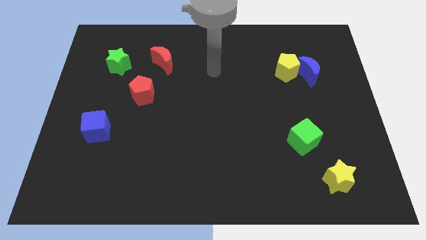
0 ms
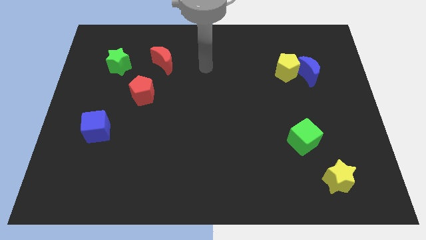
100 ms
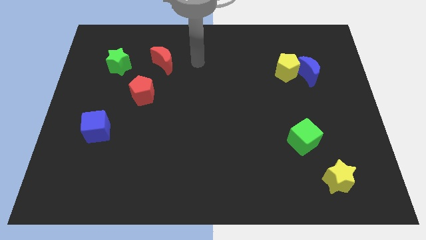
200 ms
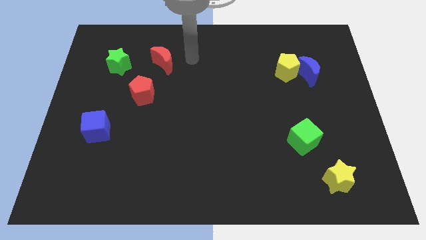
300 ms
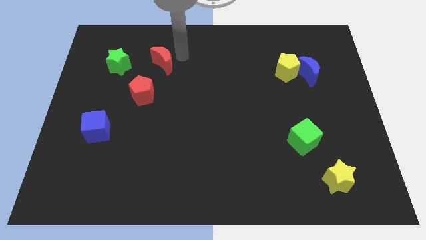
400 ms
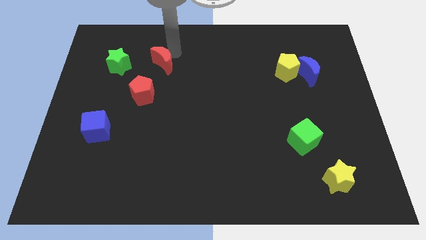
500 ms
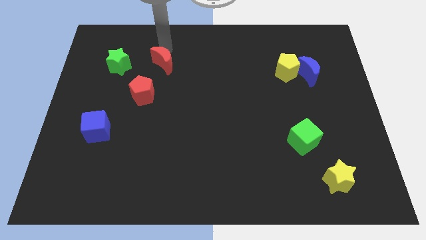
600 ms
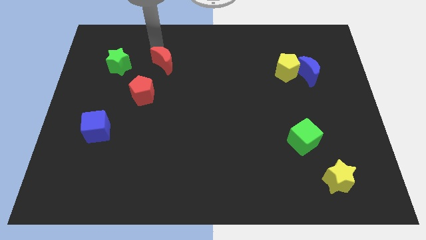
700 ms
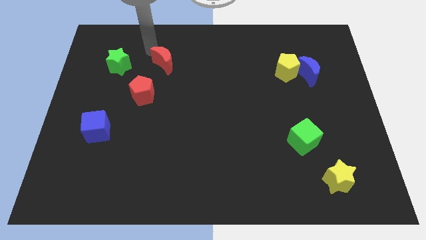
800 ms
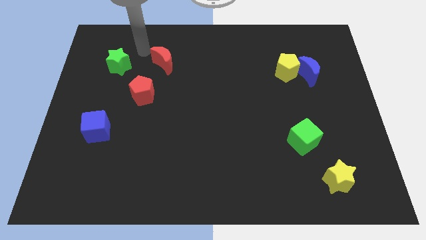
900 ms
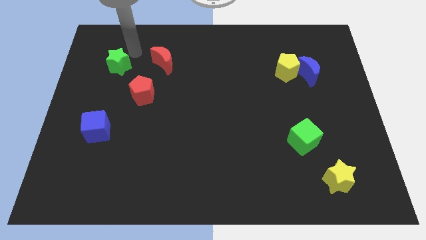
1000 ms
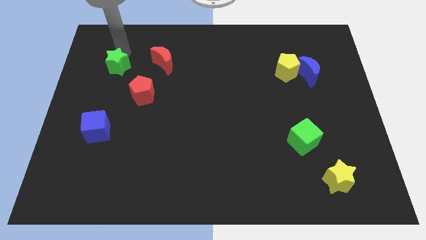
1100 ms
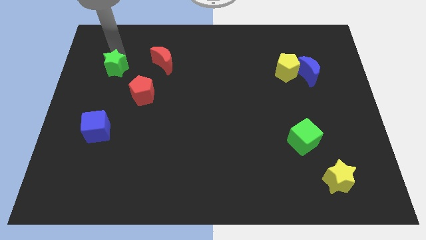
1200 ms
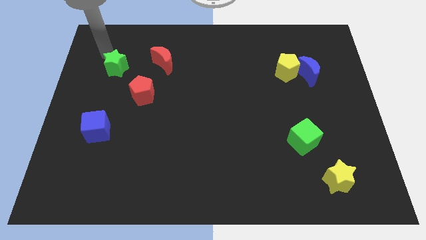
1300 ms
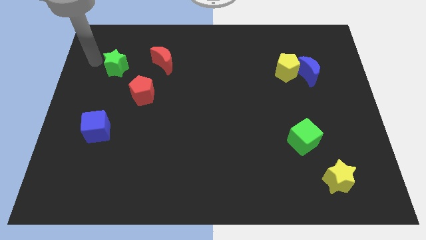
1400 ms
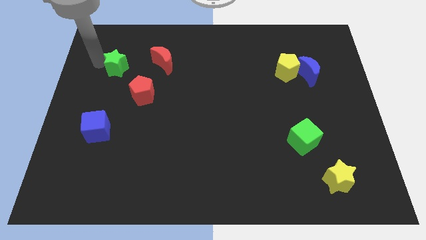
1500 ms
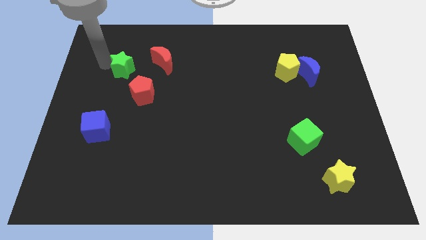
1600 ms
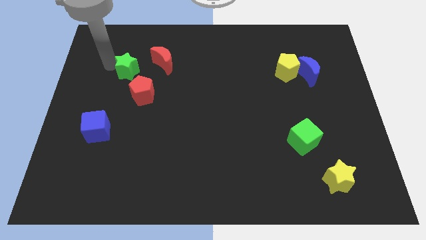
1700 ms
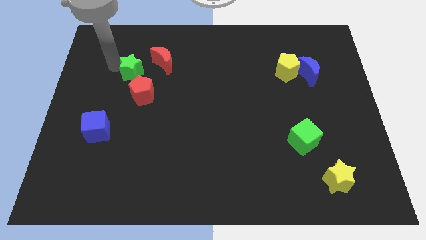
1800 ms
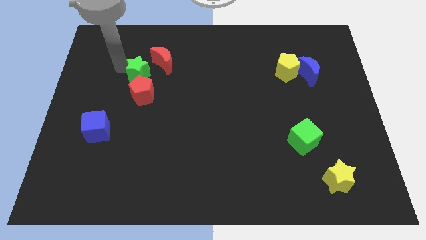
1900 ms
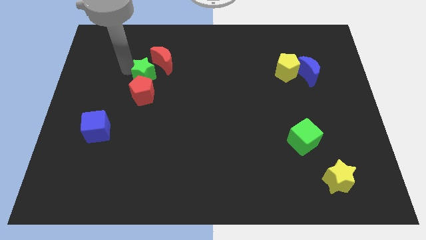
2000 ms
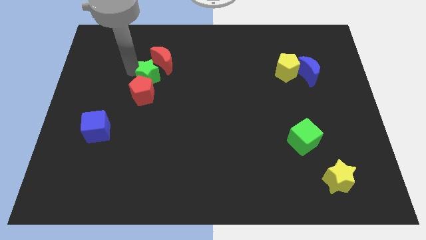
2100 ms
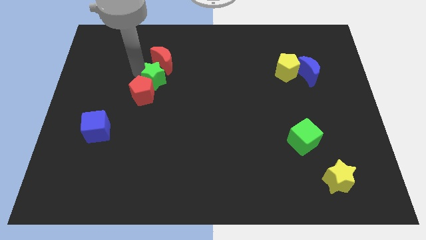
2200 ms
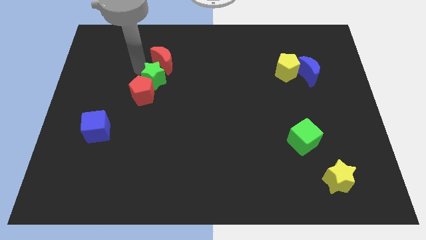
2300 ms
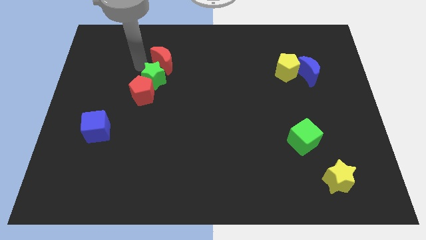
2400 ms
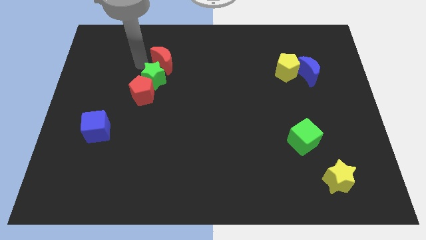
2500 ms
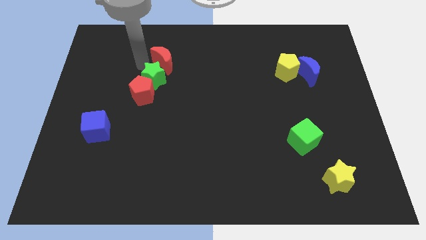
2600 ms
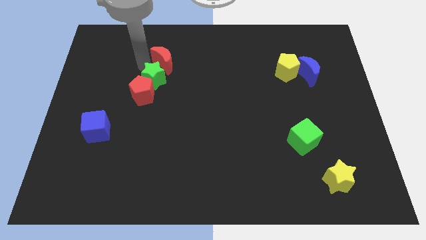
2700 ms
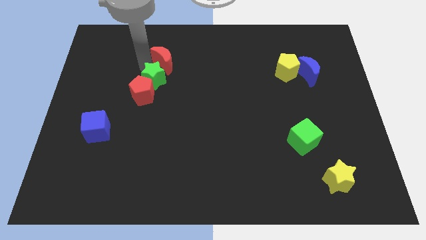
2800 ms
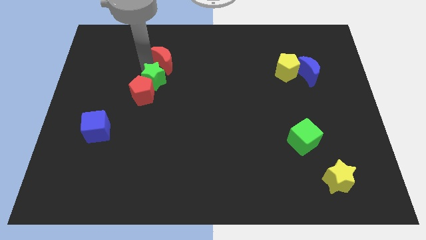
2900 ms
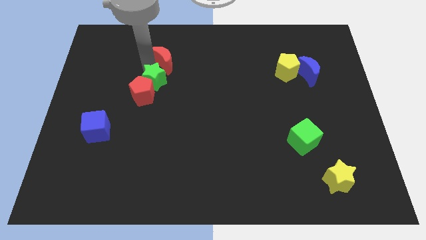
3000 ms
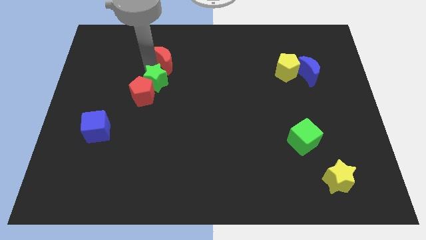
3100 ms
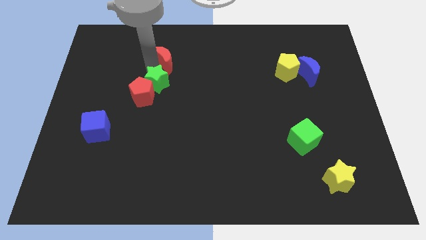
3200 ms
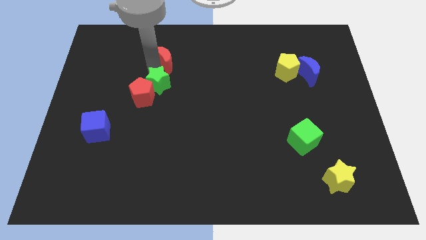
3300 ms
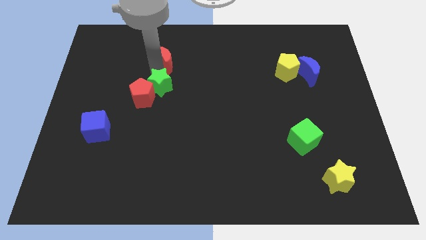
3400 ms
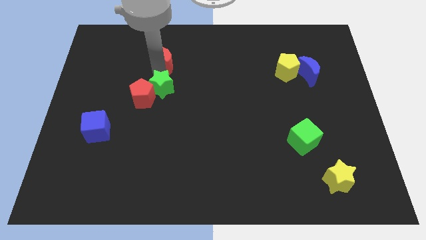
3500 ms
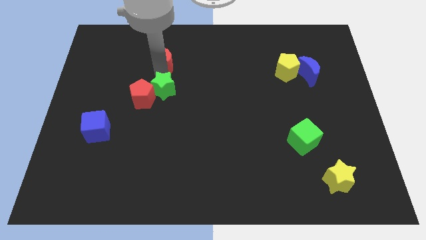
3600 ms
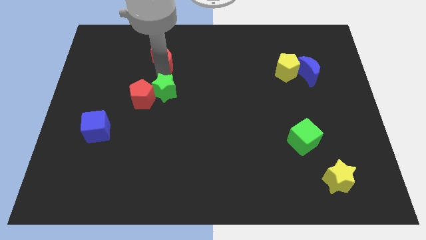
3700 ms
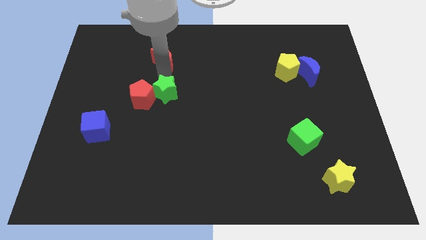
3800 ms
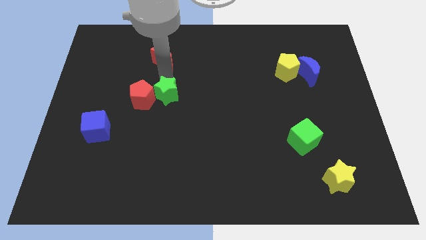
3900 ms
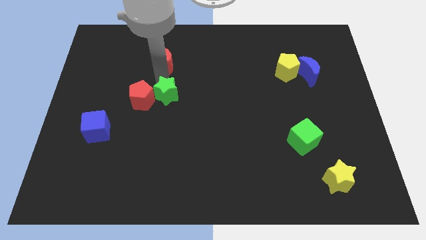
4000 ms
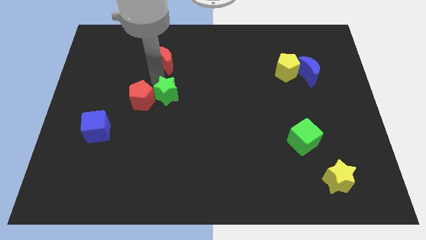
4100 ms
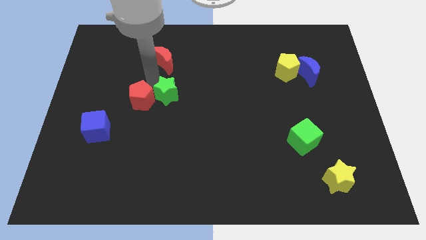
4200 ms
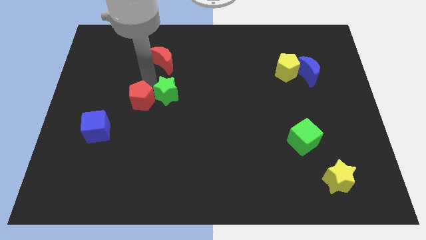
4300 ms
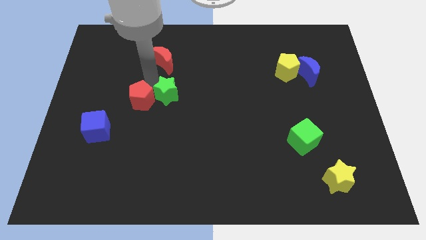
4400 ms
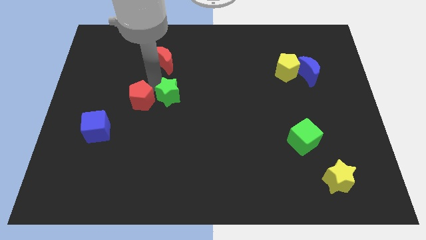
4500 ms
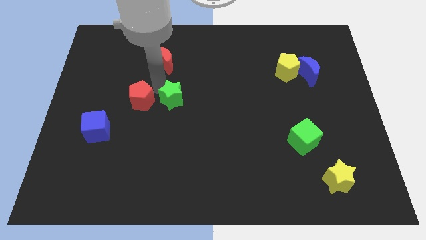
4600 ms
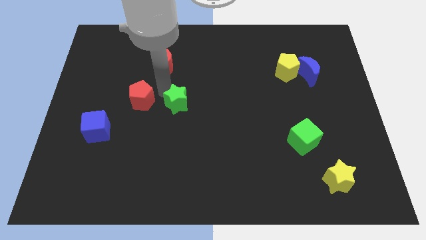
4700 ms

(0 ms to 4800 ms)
slide the green star down and right

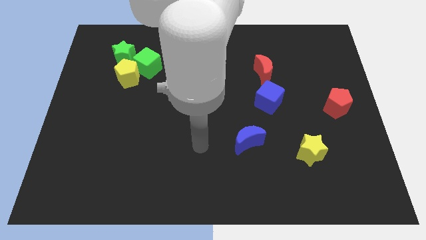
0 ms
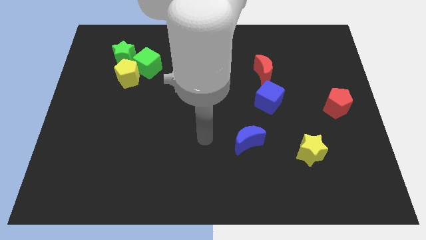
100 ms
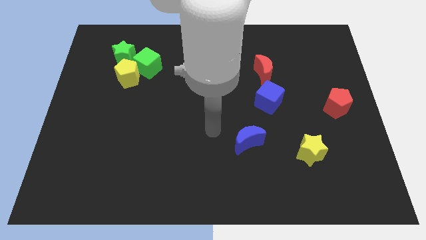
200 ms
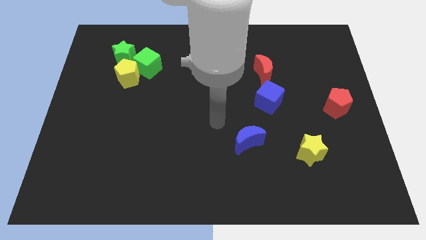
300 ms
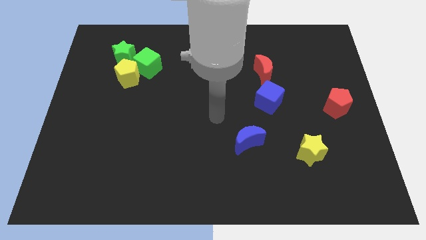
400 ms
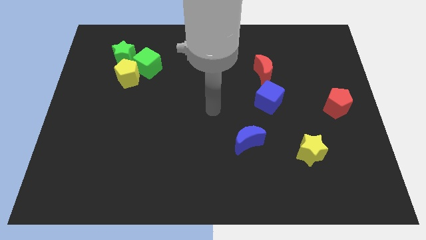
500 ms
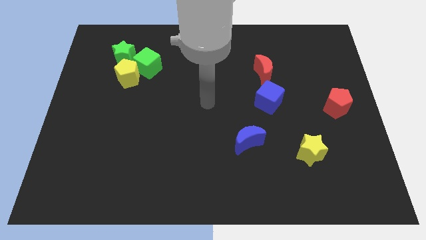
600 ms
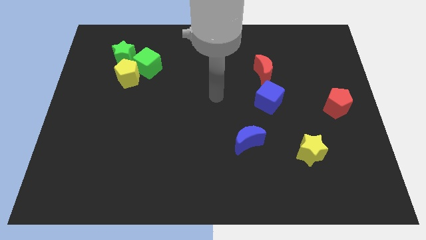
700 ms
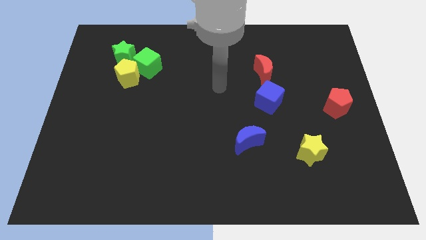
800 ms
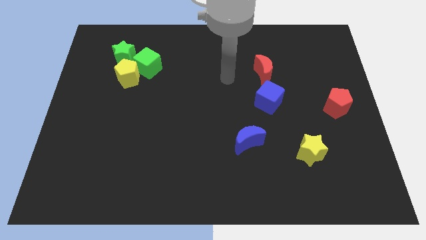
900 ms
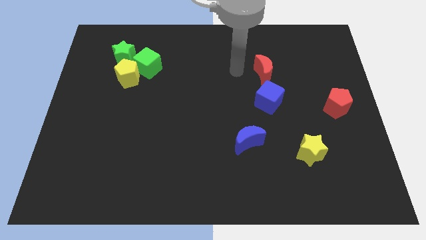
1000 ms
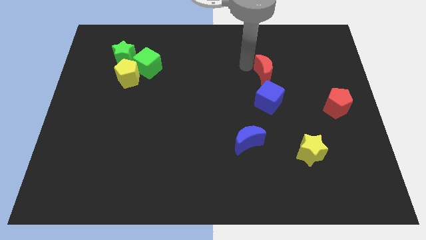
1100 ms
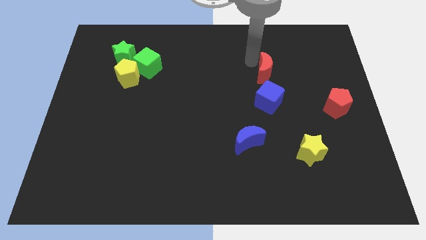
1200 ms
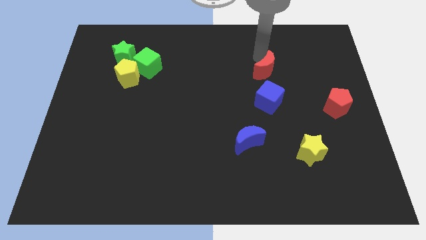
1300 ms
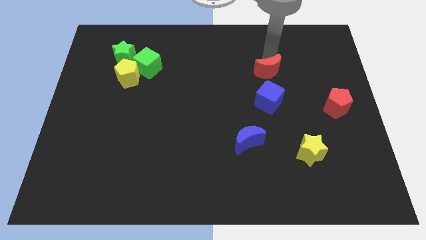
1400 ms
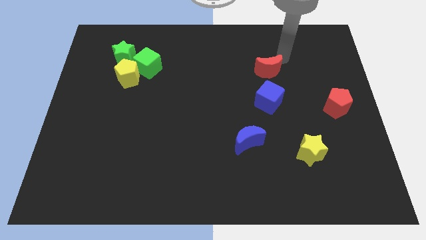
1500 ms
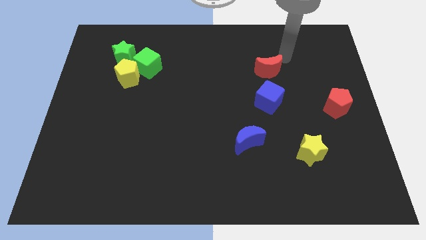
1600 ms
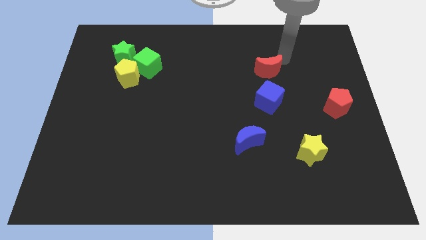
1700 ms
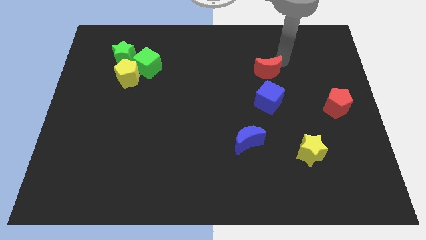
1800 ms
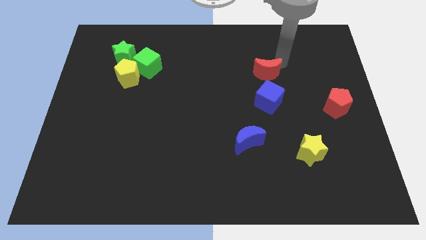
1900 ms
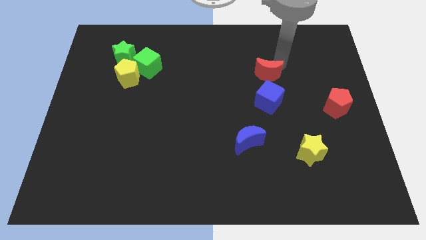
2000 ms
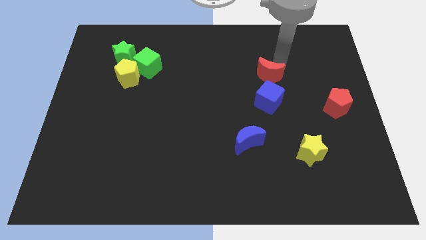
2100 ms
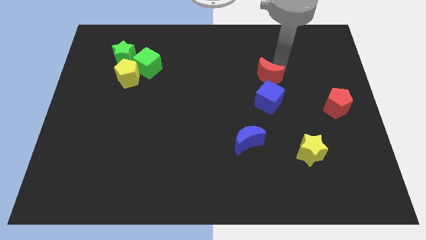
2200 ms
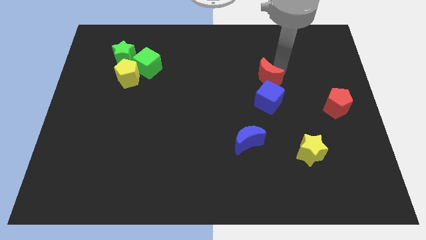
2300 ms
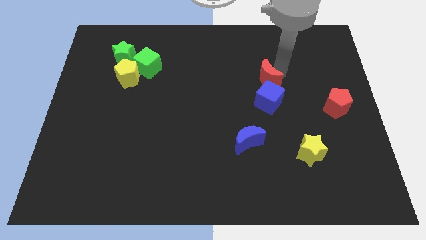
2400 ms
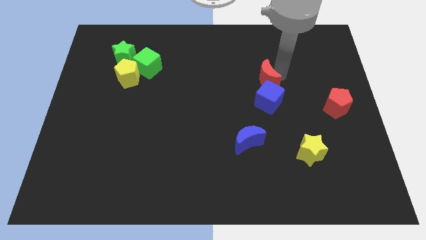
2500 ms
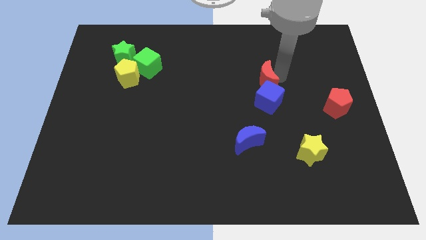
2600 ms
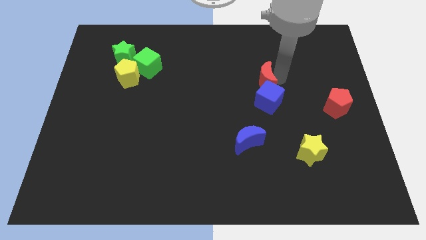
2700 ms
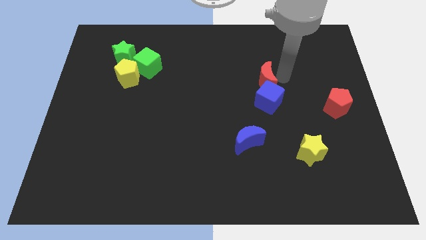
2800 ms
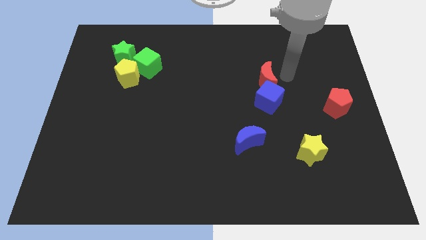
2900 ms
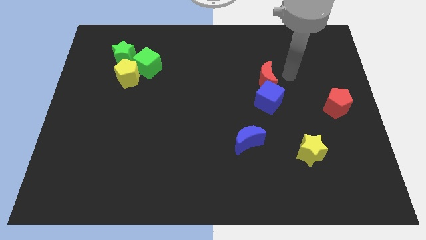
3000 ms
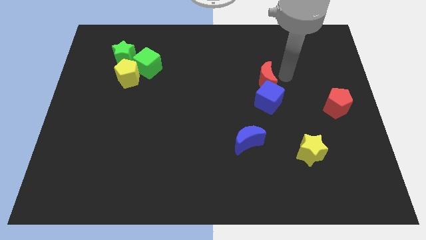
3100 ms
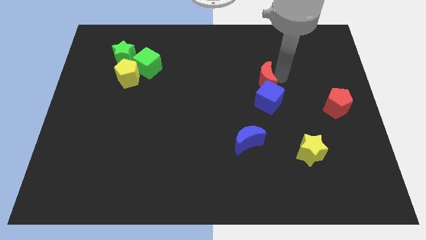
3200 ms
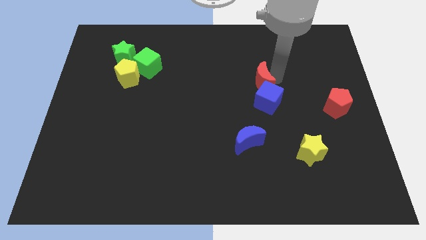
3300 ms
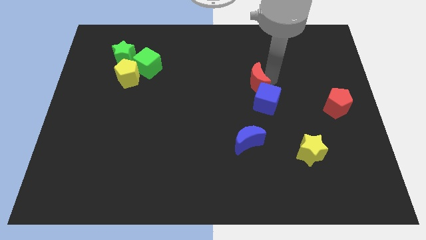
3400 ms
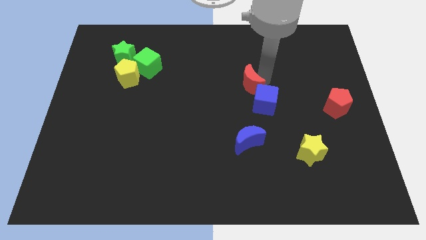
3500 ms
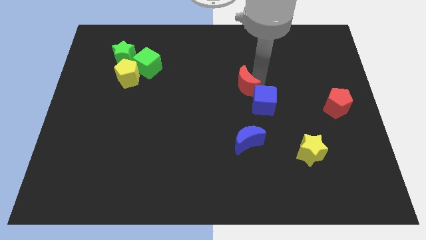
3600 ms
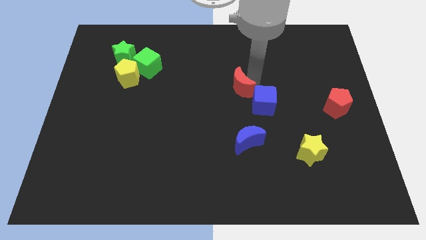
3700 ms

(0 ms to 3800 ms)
slightly move the red moon downwards and then to the left

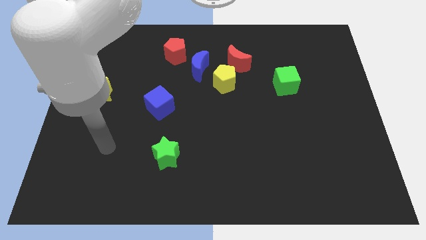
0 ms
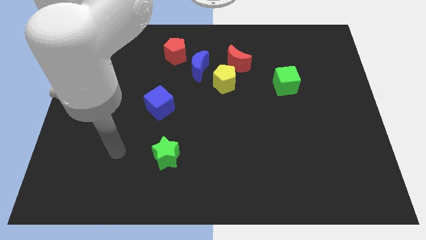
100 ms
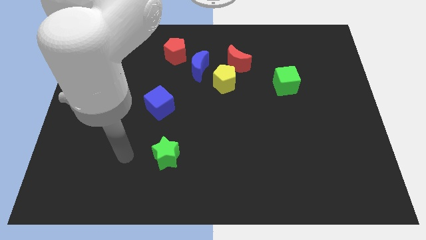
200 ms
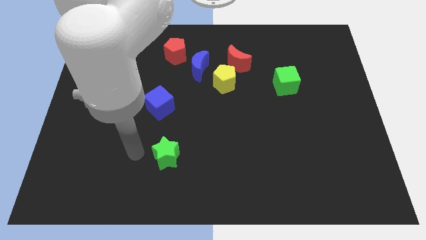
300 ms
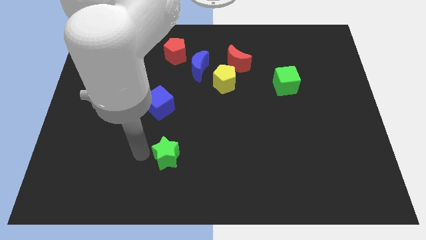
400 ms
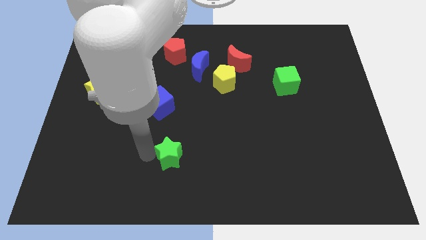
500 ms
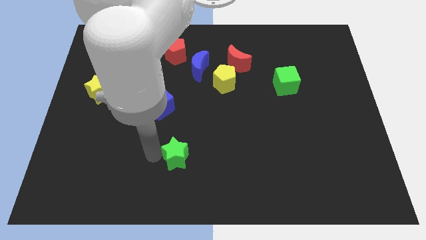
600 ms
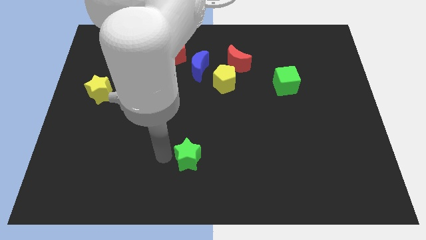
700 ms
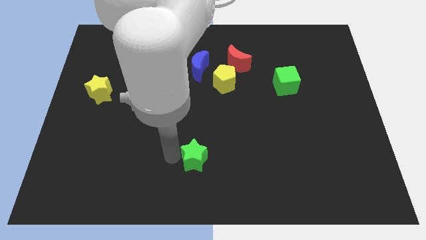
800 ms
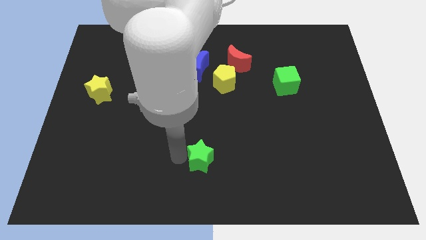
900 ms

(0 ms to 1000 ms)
slightly slide the green star right
